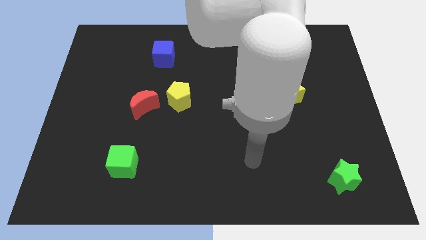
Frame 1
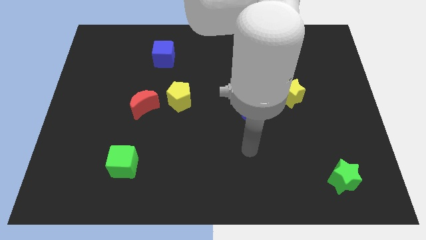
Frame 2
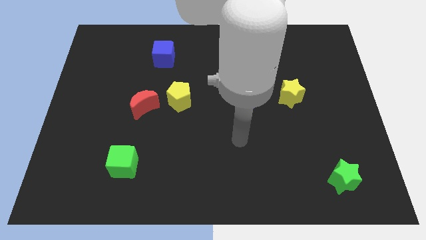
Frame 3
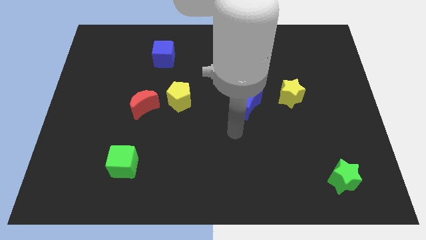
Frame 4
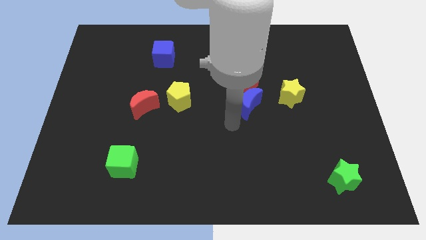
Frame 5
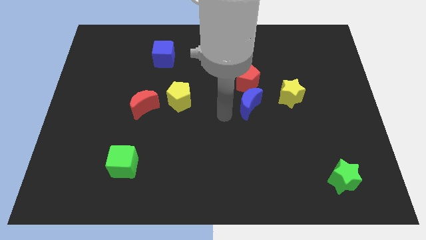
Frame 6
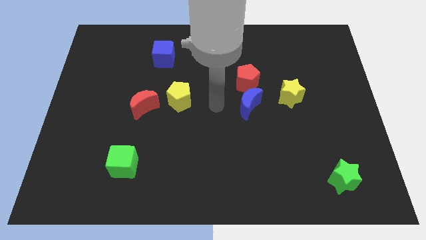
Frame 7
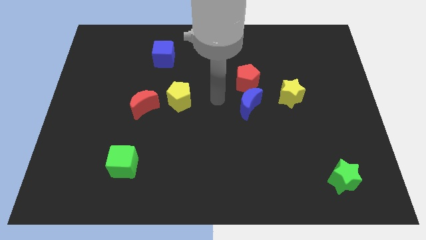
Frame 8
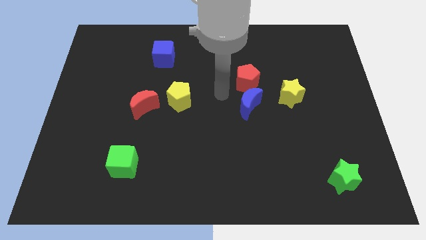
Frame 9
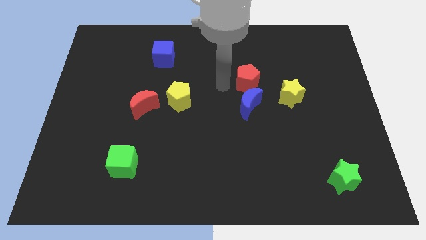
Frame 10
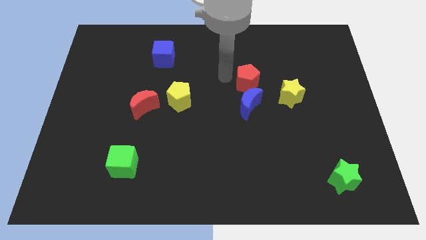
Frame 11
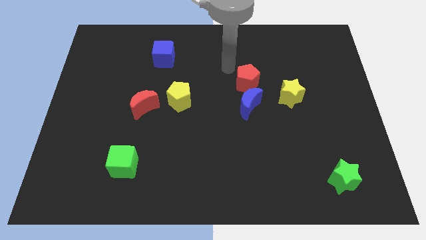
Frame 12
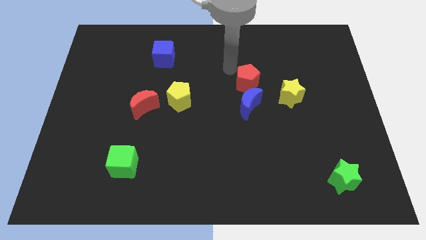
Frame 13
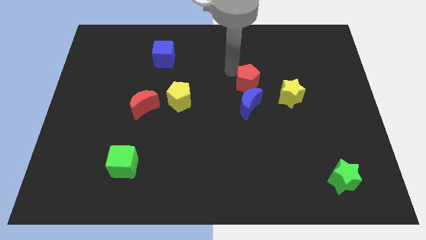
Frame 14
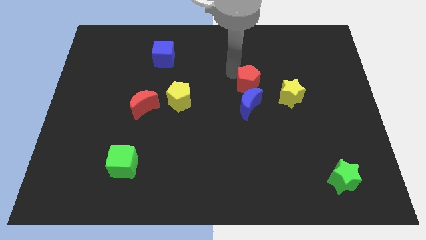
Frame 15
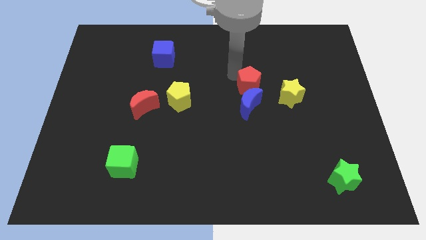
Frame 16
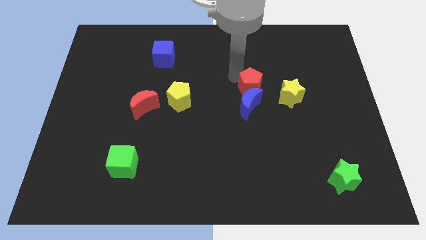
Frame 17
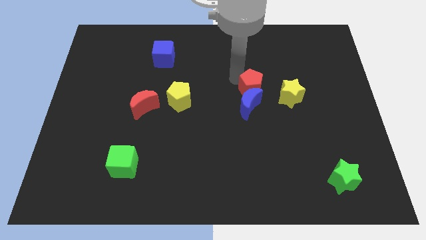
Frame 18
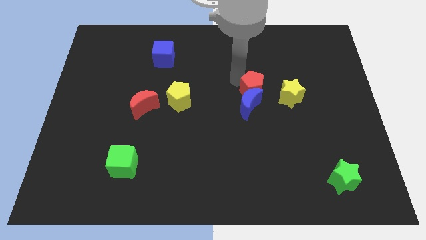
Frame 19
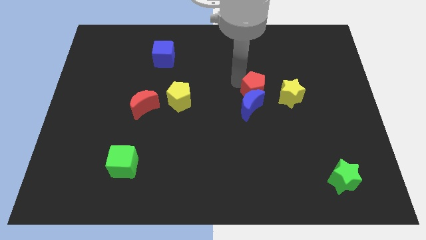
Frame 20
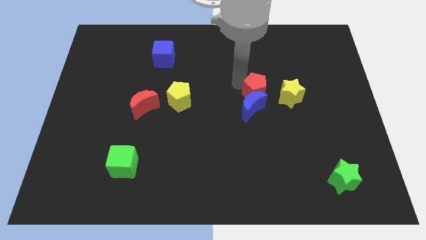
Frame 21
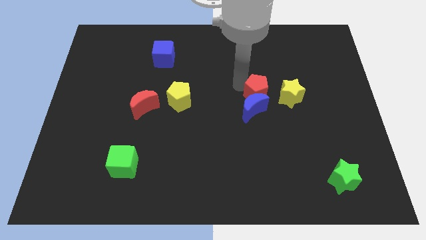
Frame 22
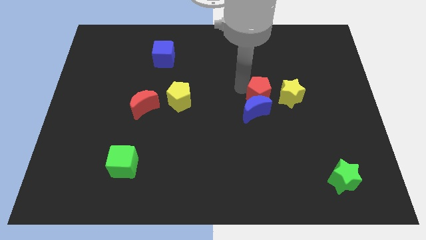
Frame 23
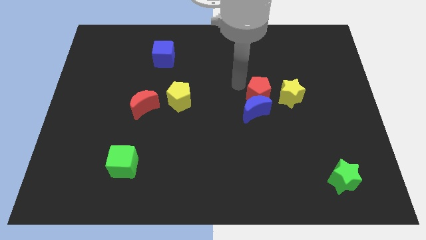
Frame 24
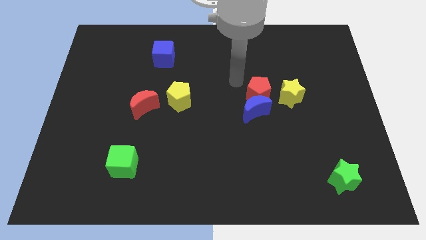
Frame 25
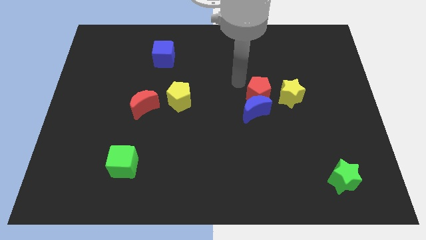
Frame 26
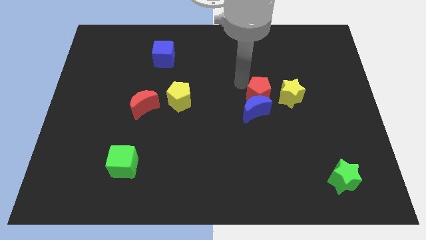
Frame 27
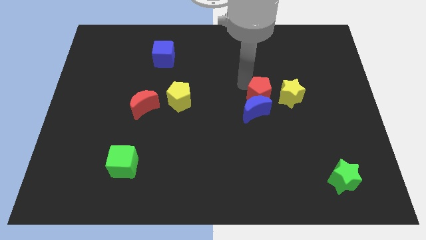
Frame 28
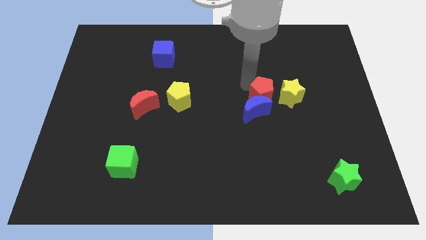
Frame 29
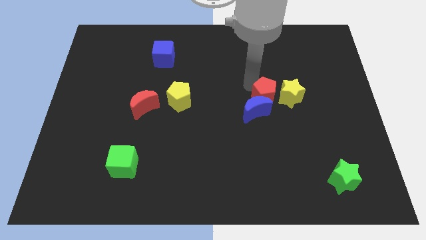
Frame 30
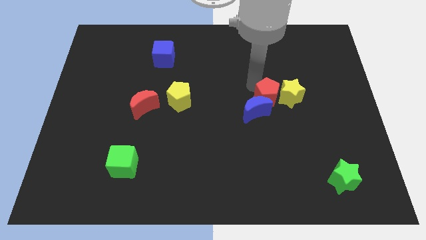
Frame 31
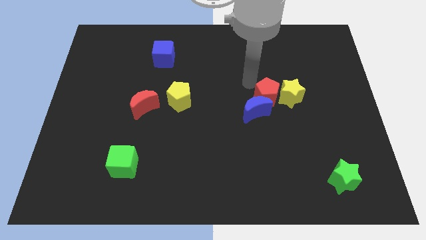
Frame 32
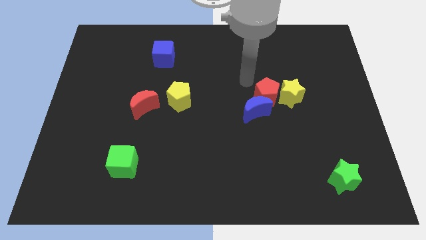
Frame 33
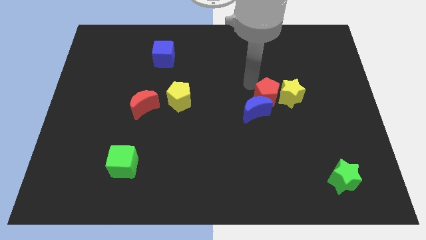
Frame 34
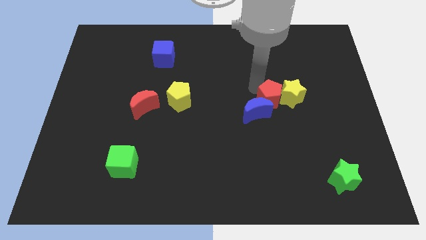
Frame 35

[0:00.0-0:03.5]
slightly push the red pentagon downwards and right diagonally

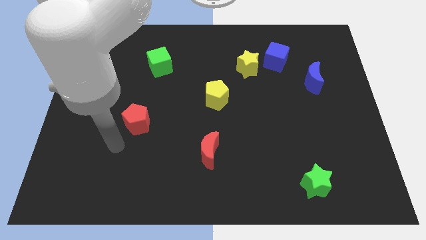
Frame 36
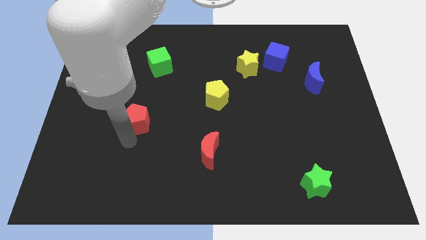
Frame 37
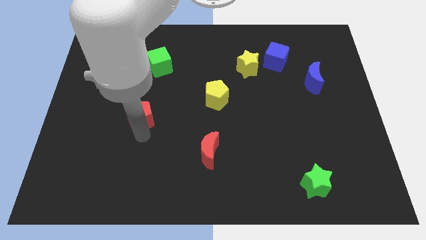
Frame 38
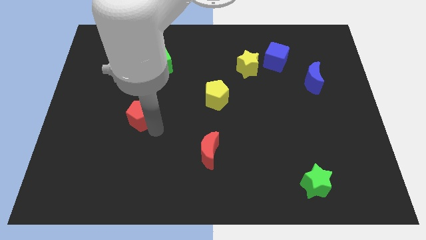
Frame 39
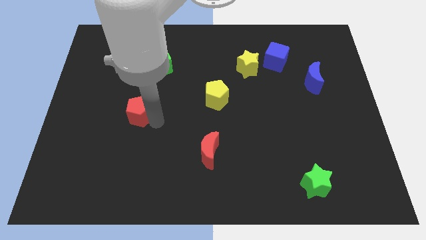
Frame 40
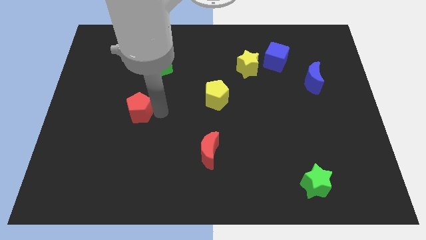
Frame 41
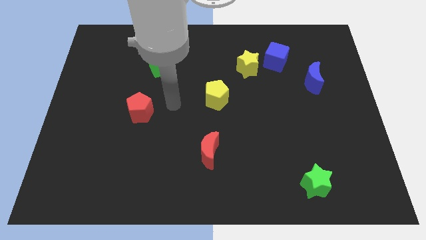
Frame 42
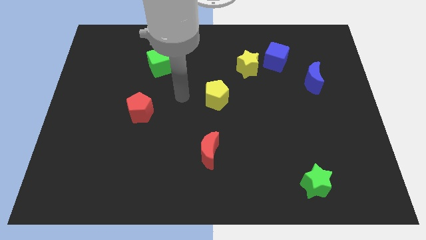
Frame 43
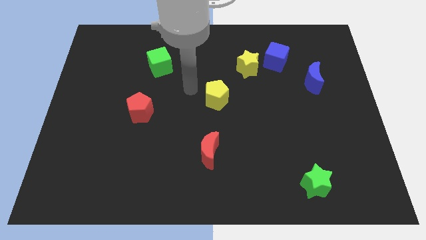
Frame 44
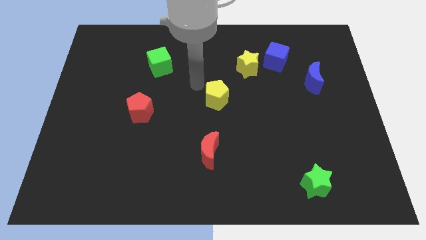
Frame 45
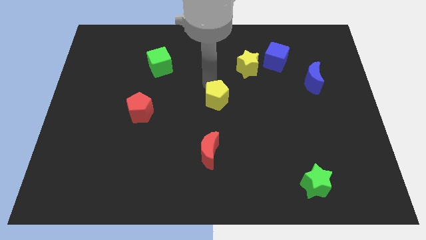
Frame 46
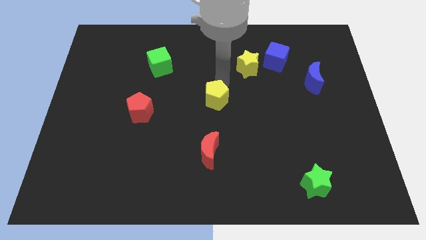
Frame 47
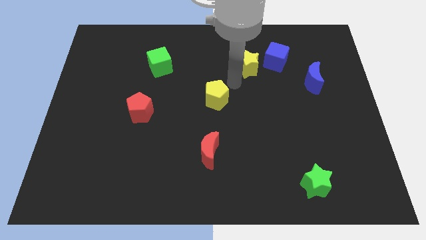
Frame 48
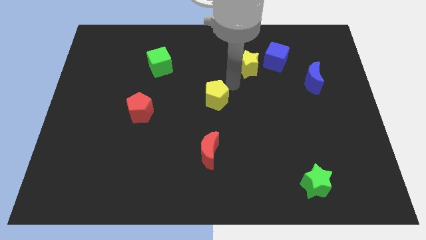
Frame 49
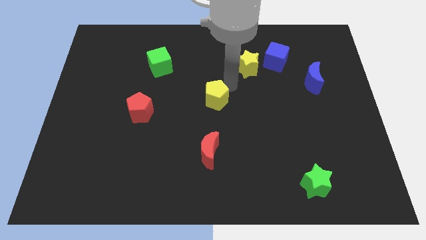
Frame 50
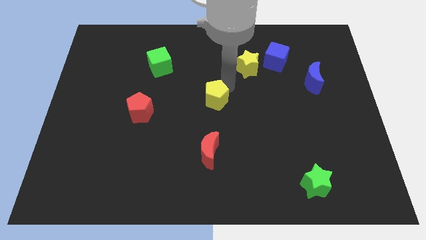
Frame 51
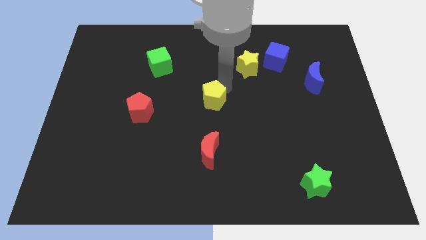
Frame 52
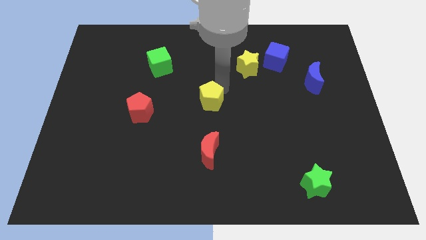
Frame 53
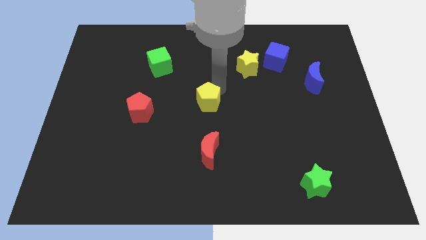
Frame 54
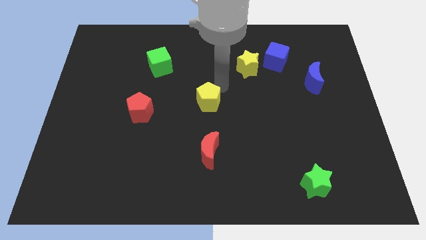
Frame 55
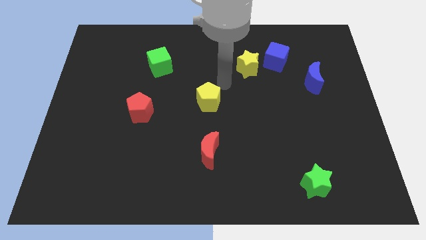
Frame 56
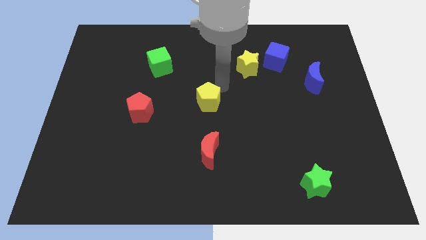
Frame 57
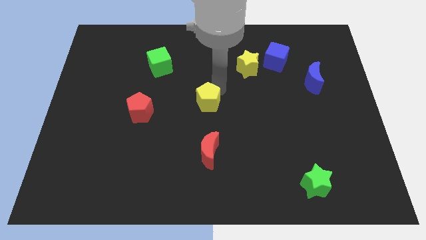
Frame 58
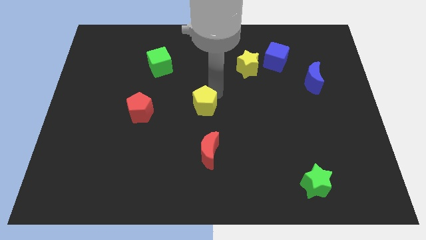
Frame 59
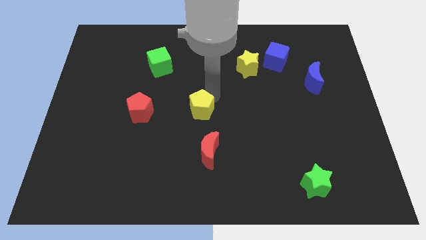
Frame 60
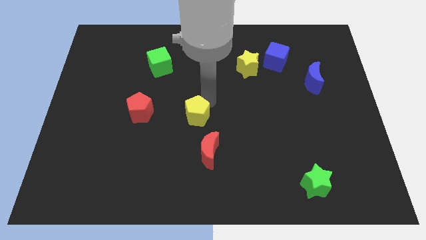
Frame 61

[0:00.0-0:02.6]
slightly push the yellow pentagon downwards and then left

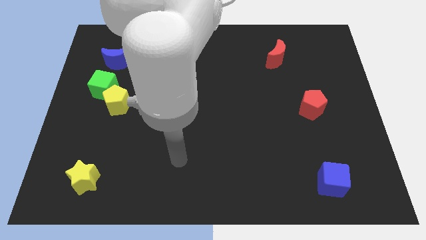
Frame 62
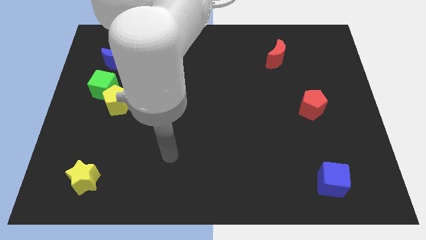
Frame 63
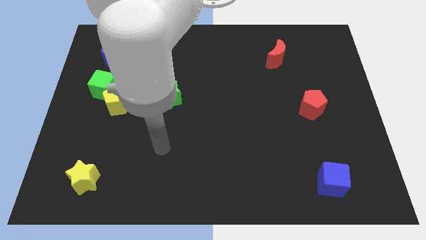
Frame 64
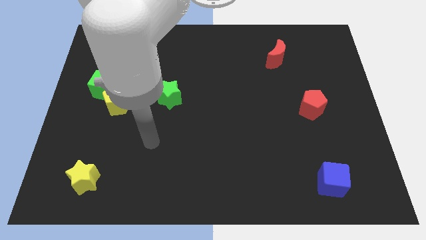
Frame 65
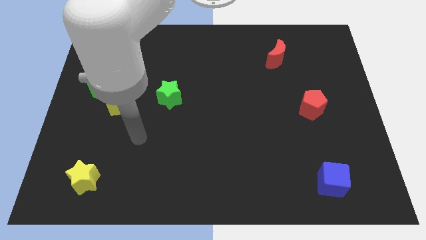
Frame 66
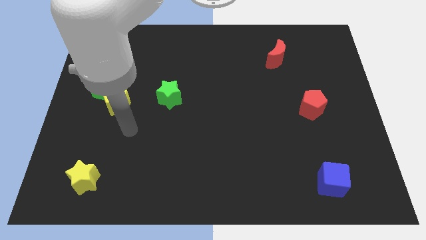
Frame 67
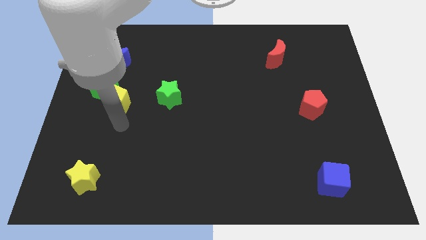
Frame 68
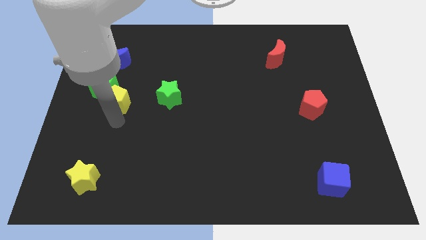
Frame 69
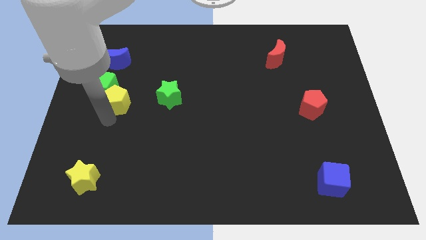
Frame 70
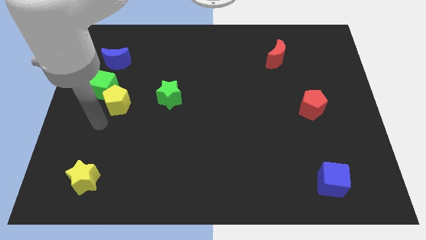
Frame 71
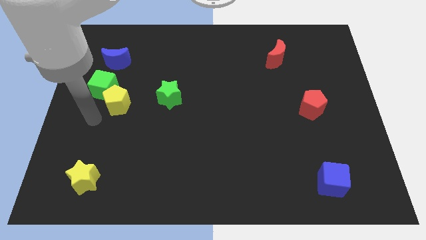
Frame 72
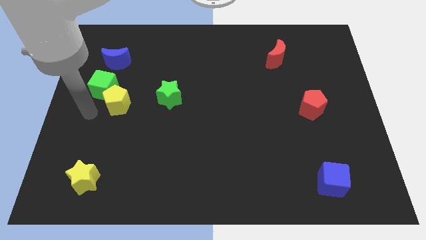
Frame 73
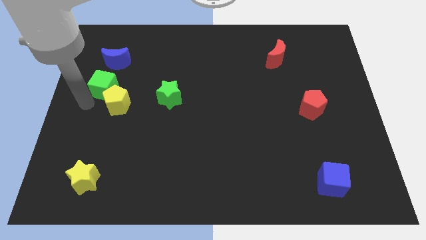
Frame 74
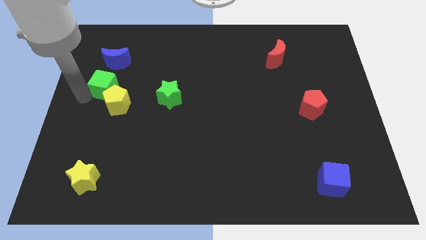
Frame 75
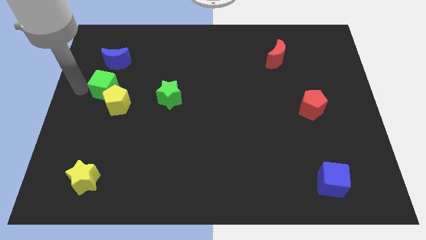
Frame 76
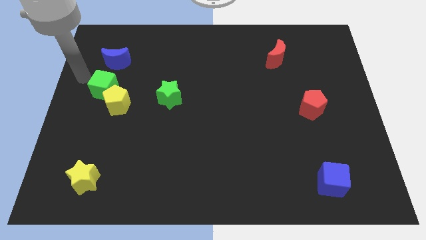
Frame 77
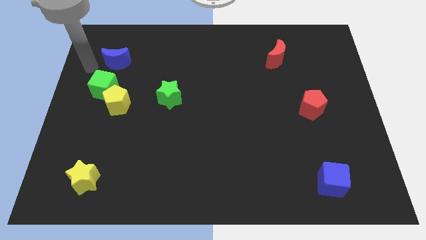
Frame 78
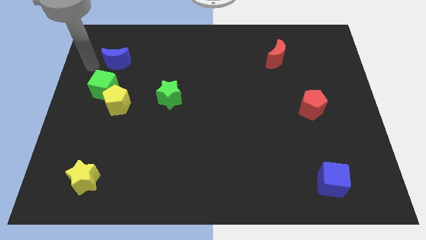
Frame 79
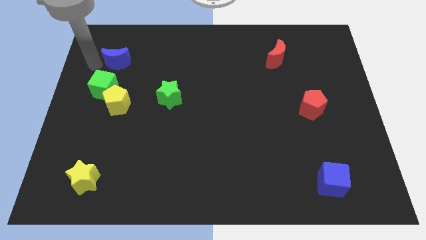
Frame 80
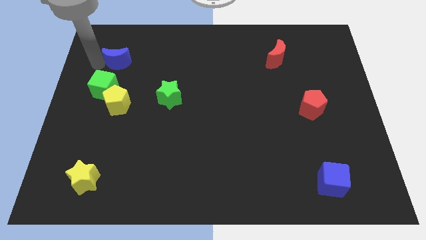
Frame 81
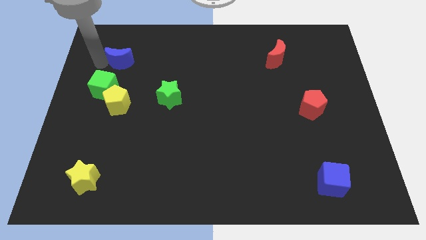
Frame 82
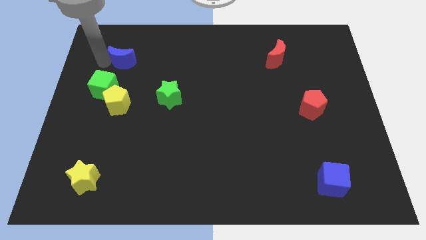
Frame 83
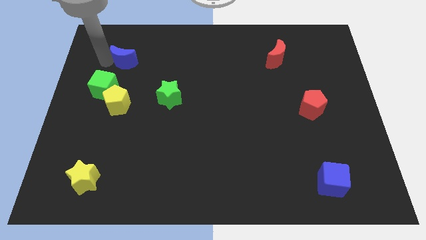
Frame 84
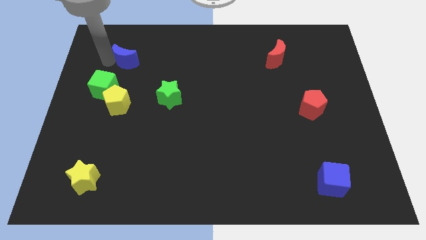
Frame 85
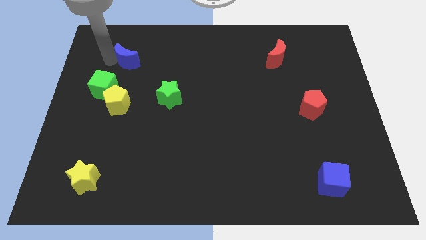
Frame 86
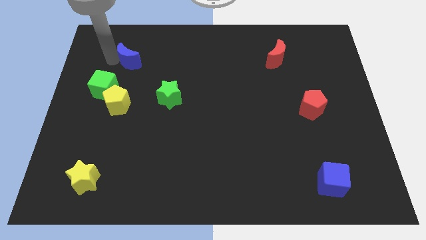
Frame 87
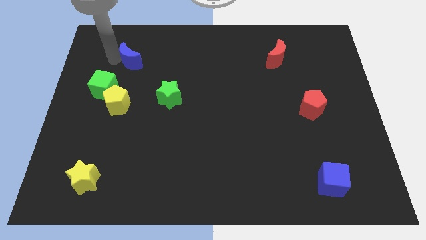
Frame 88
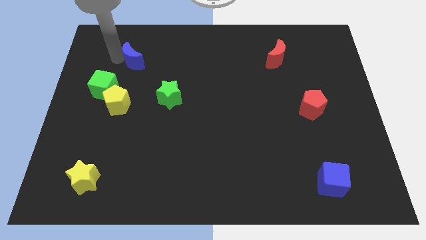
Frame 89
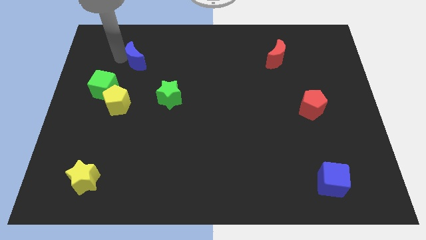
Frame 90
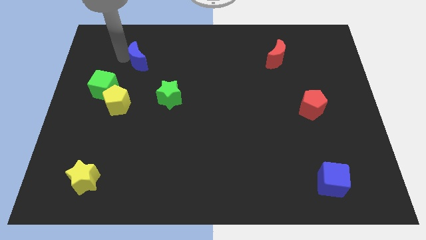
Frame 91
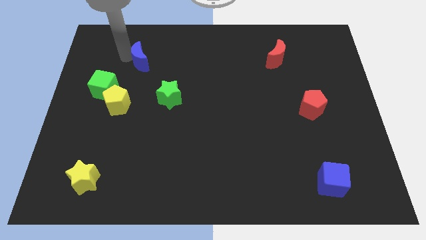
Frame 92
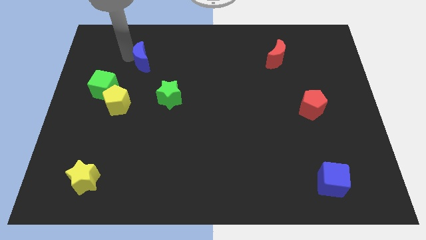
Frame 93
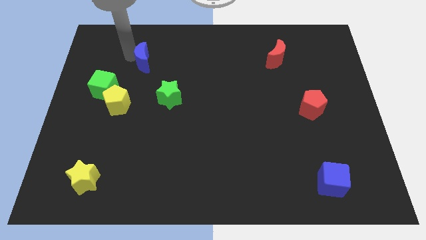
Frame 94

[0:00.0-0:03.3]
slide the blue moon a bit right
